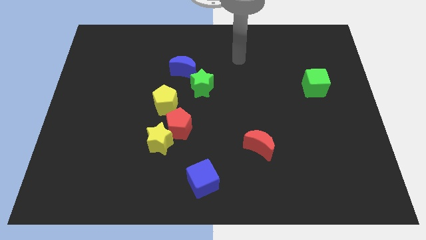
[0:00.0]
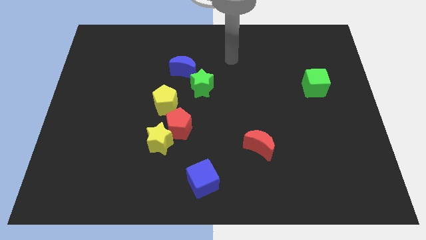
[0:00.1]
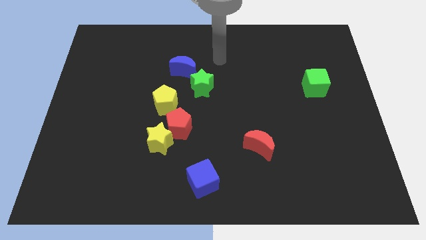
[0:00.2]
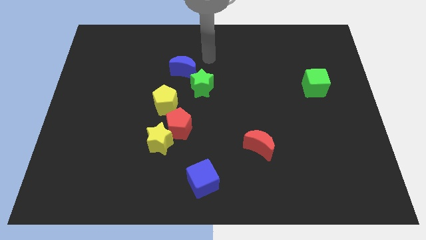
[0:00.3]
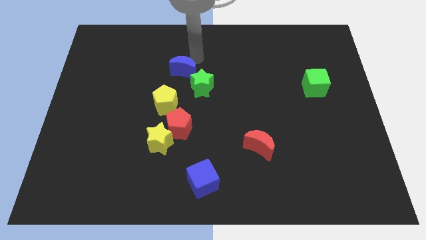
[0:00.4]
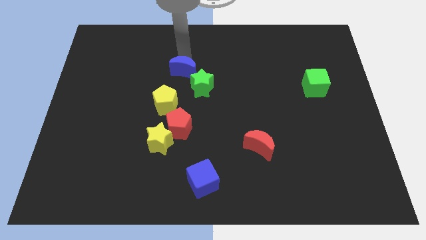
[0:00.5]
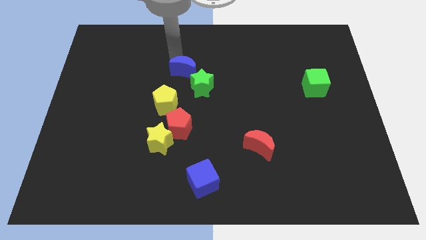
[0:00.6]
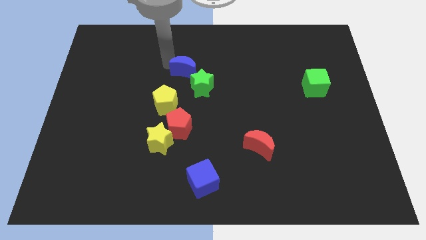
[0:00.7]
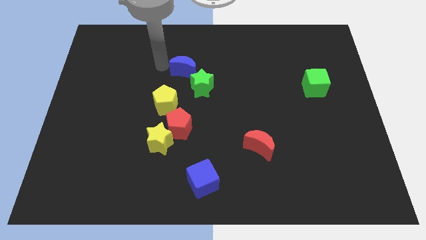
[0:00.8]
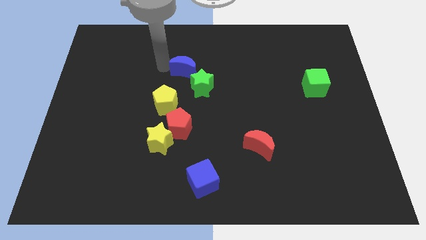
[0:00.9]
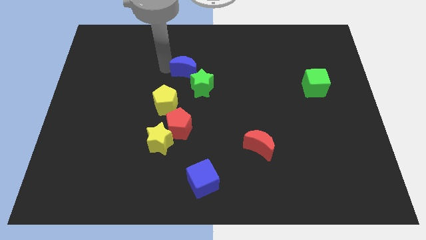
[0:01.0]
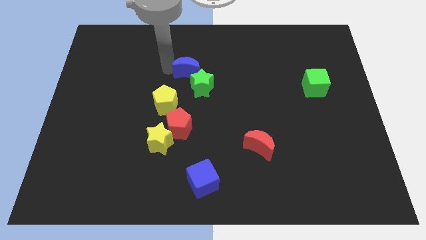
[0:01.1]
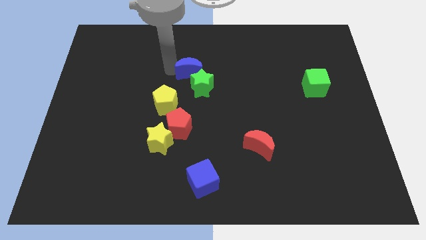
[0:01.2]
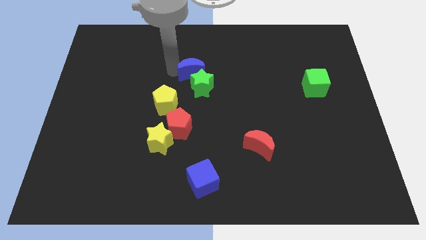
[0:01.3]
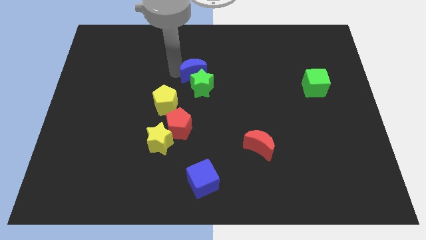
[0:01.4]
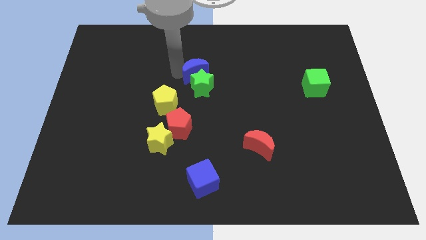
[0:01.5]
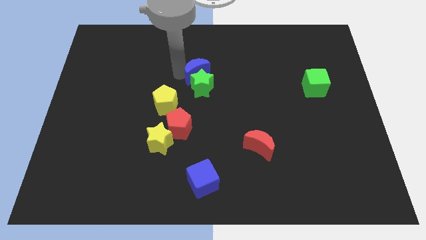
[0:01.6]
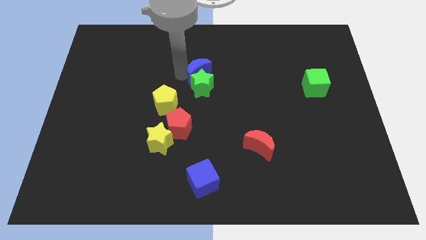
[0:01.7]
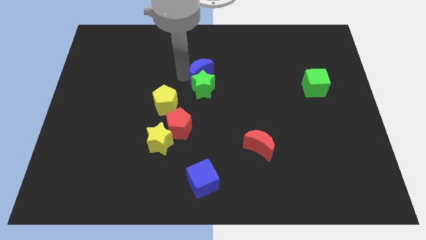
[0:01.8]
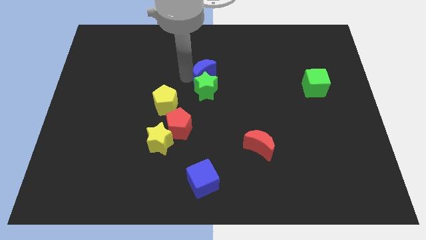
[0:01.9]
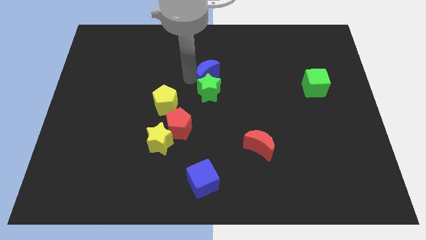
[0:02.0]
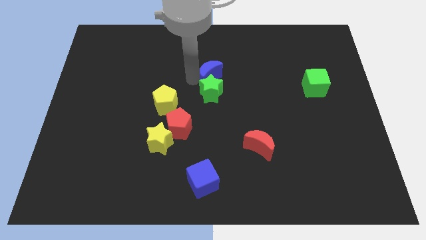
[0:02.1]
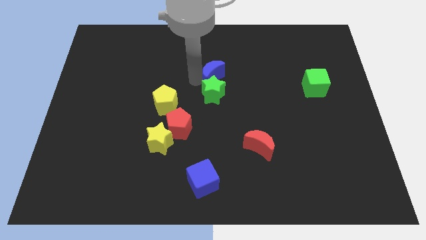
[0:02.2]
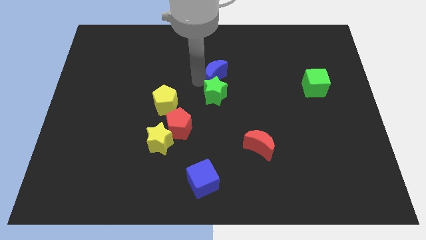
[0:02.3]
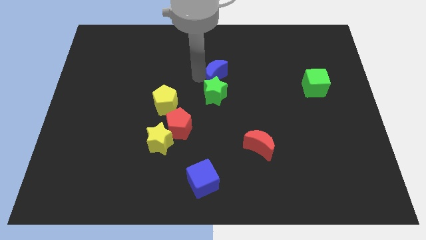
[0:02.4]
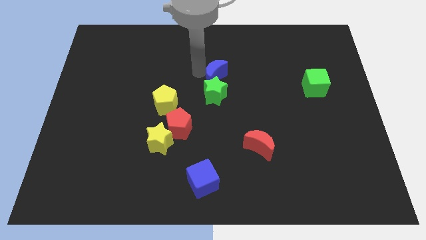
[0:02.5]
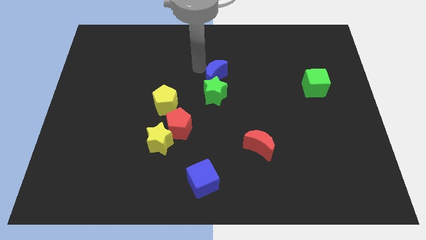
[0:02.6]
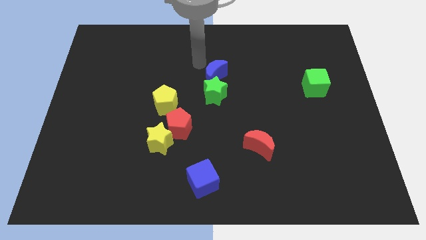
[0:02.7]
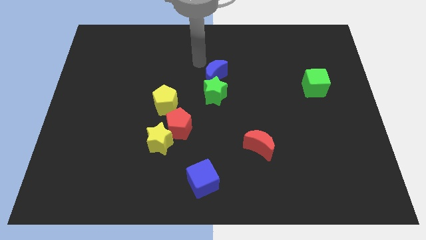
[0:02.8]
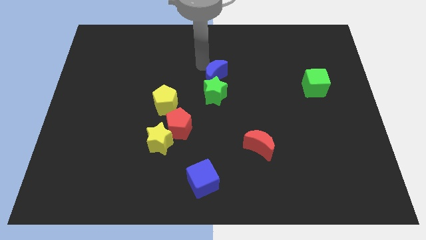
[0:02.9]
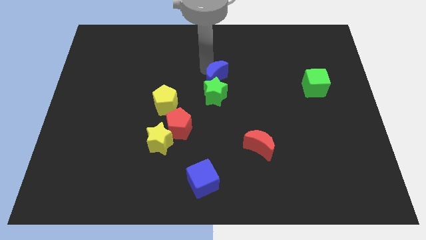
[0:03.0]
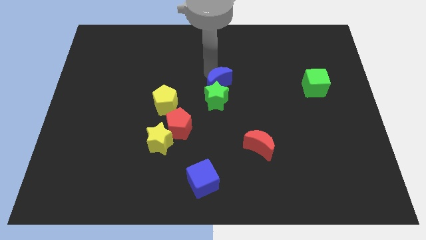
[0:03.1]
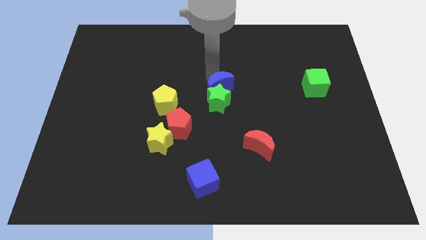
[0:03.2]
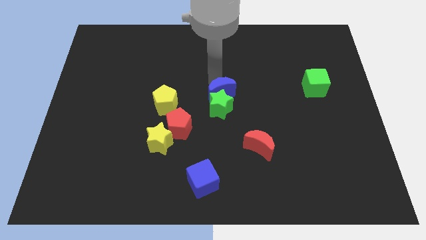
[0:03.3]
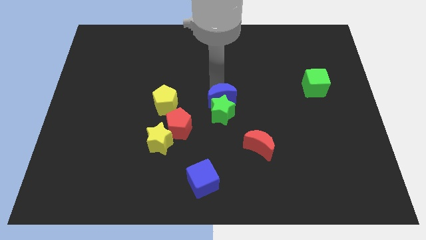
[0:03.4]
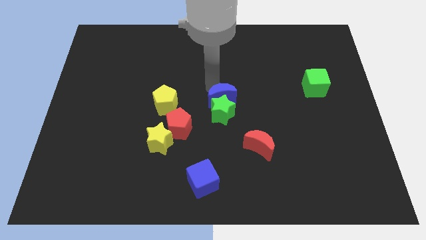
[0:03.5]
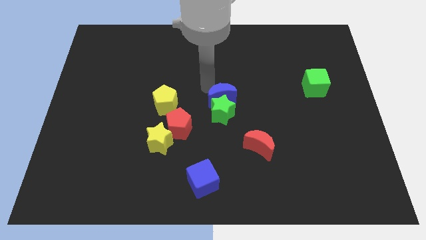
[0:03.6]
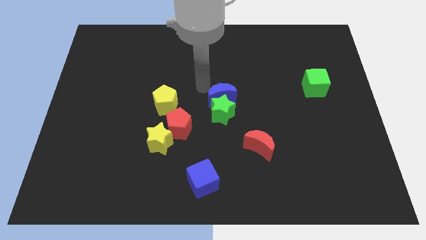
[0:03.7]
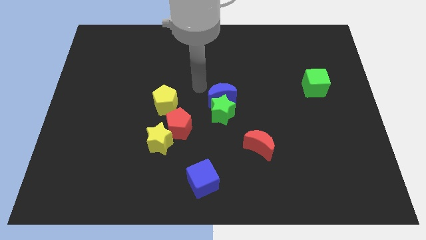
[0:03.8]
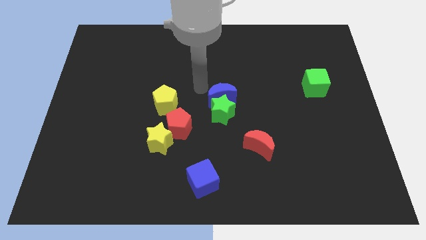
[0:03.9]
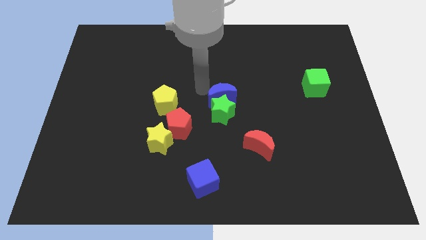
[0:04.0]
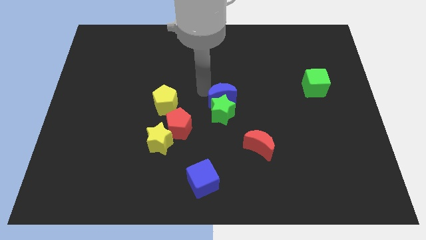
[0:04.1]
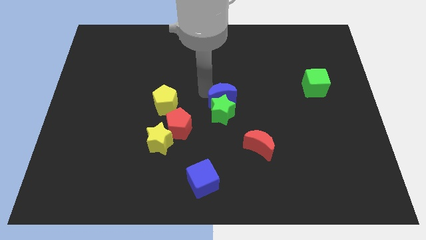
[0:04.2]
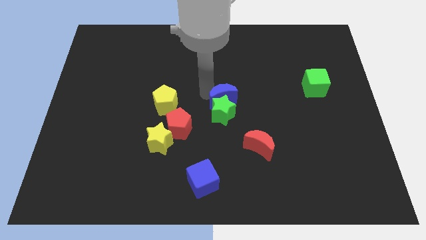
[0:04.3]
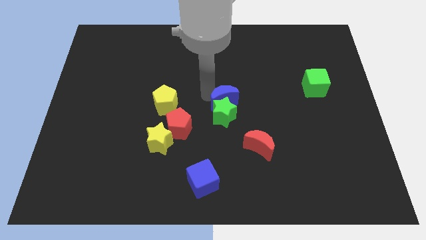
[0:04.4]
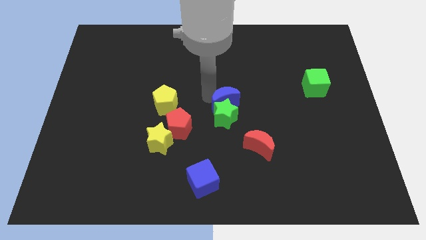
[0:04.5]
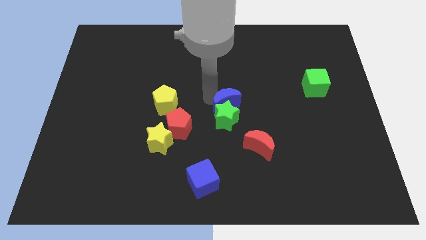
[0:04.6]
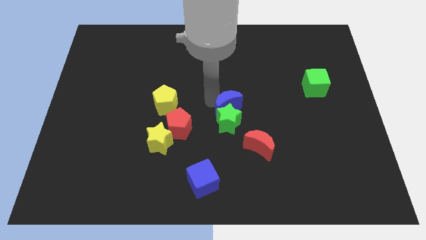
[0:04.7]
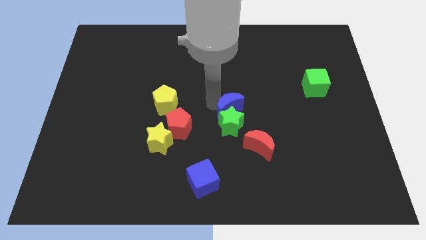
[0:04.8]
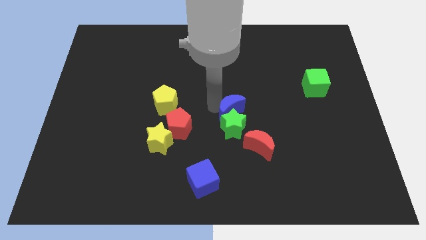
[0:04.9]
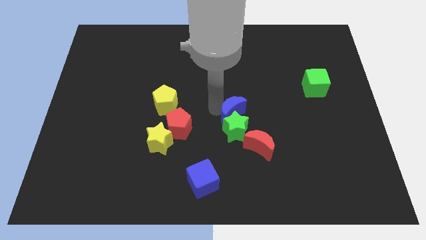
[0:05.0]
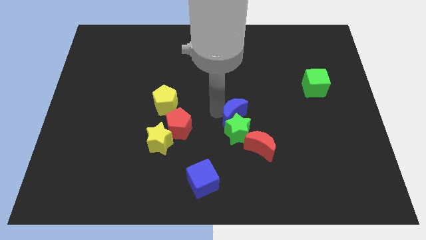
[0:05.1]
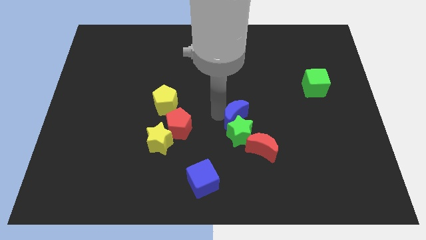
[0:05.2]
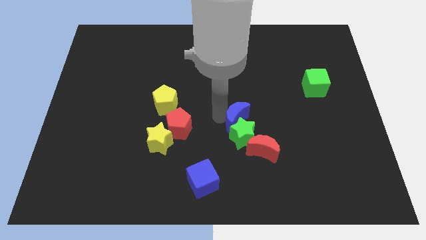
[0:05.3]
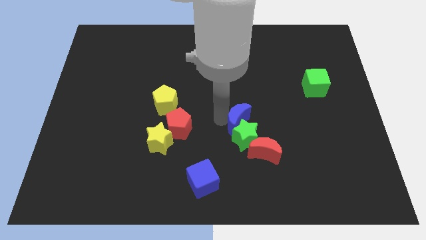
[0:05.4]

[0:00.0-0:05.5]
move the blue moon downwards and to the right

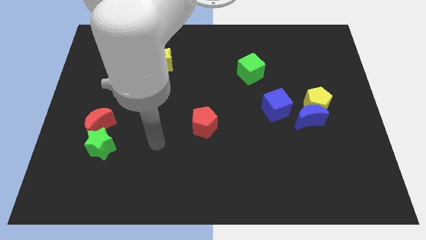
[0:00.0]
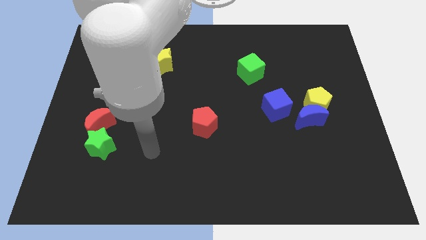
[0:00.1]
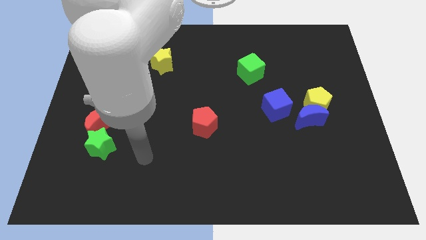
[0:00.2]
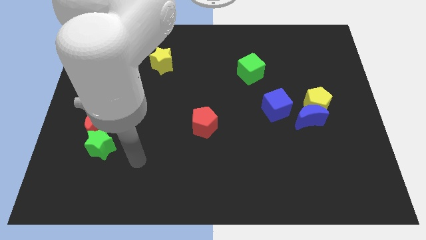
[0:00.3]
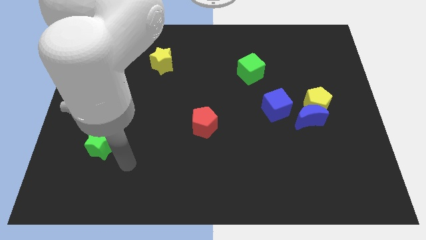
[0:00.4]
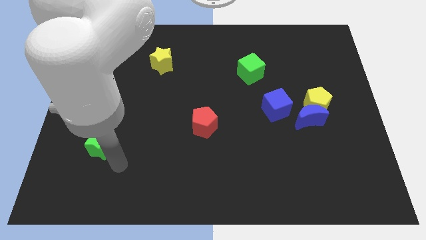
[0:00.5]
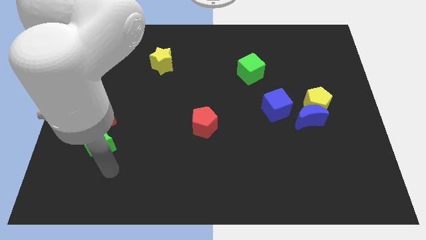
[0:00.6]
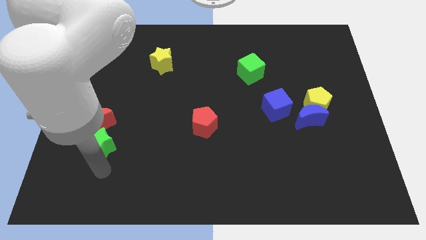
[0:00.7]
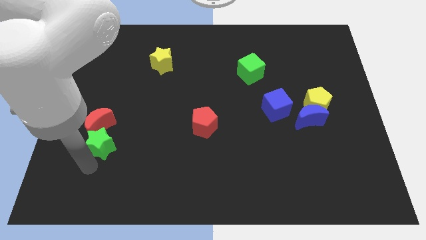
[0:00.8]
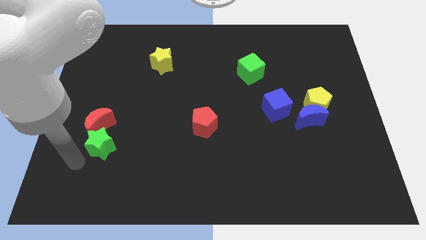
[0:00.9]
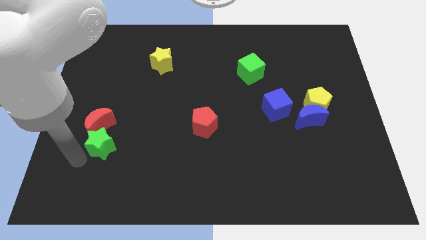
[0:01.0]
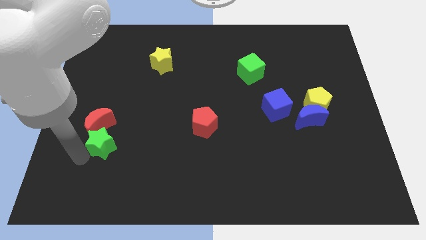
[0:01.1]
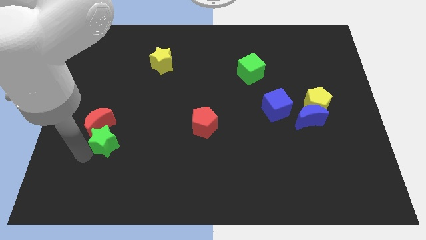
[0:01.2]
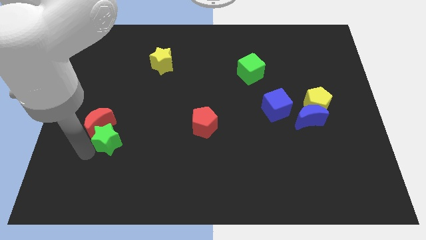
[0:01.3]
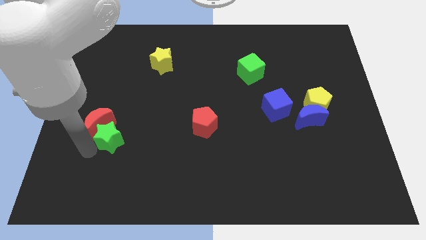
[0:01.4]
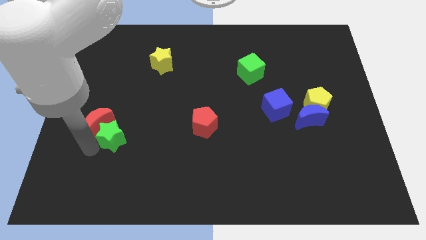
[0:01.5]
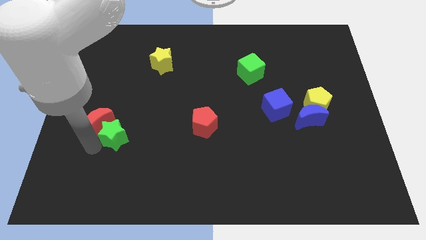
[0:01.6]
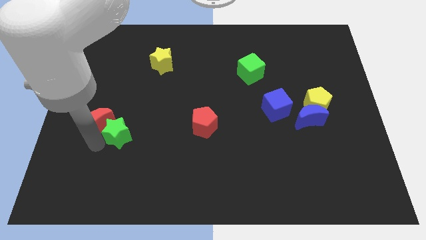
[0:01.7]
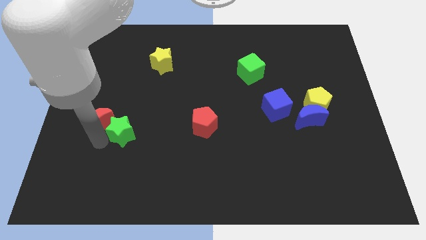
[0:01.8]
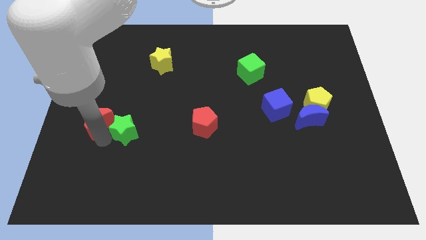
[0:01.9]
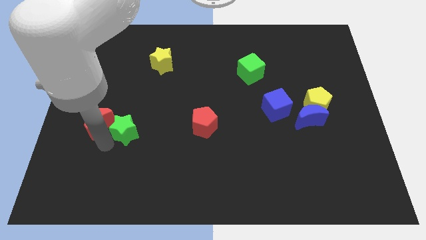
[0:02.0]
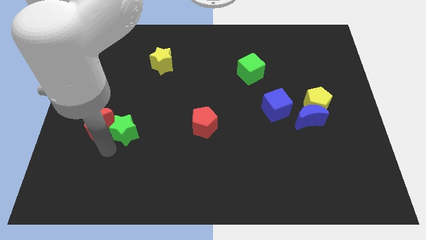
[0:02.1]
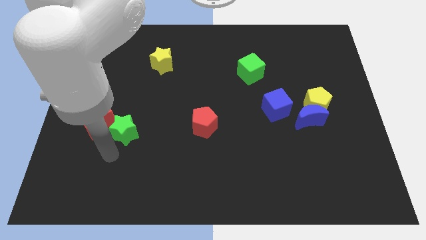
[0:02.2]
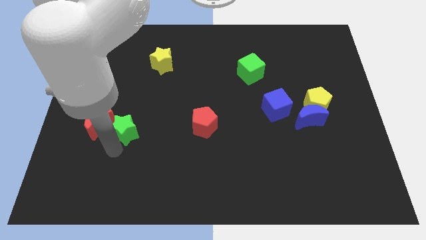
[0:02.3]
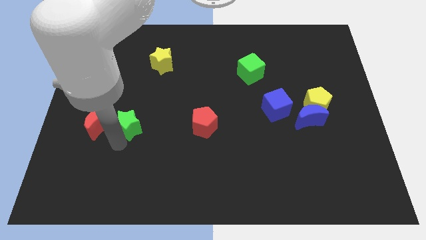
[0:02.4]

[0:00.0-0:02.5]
push the green star a little bit up and then right
